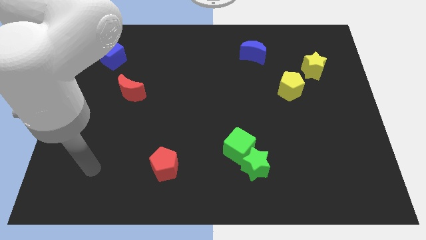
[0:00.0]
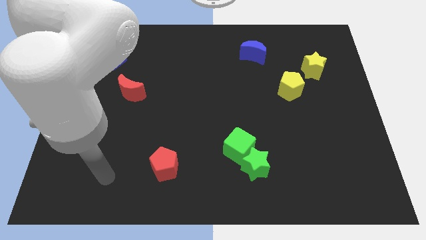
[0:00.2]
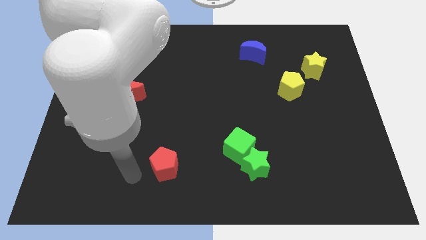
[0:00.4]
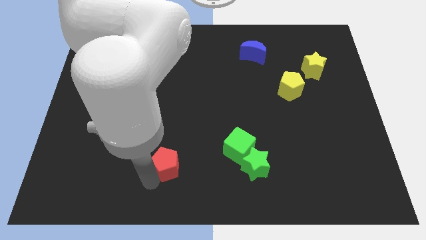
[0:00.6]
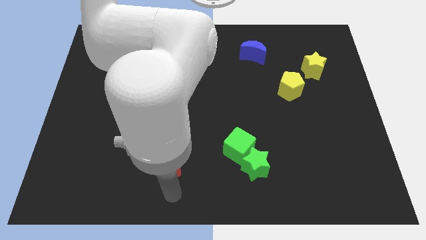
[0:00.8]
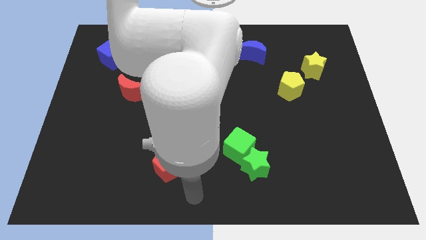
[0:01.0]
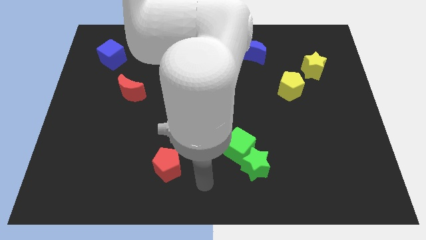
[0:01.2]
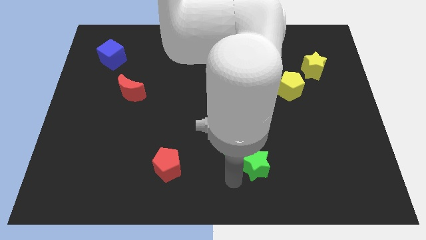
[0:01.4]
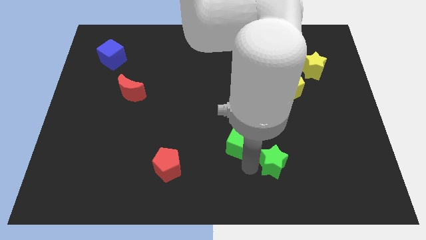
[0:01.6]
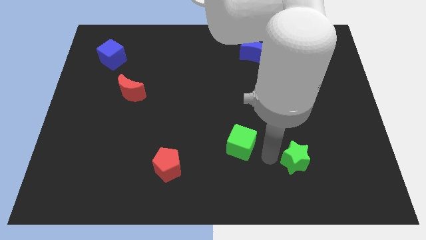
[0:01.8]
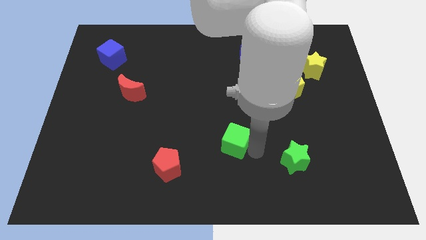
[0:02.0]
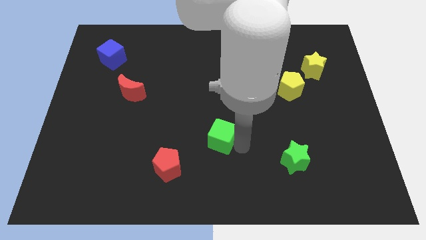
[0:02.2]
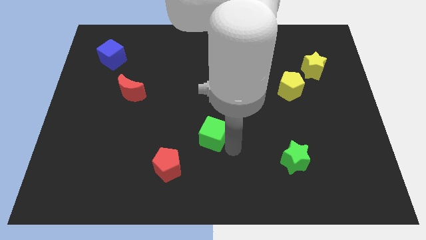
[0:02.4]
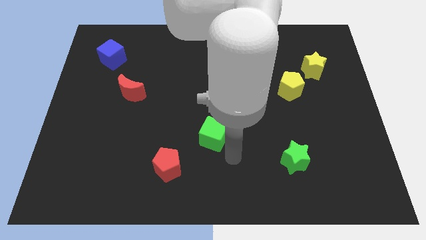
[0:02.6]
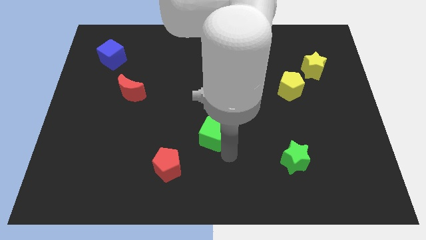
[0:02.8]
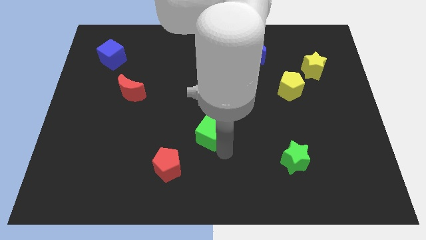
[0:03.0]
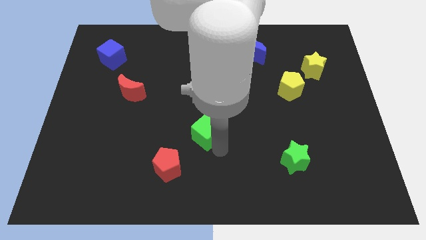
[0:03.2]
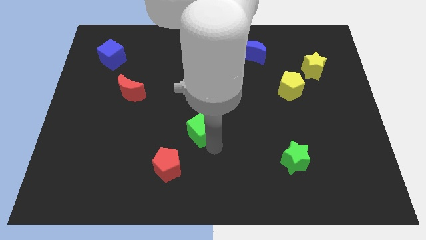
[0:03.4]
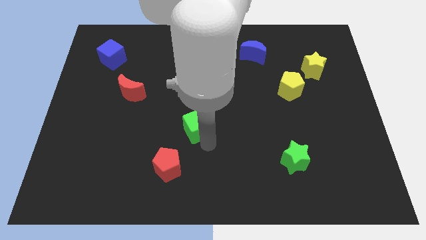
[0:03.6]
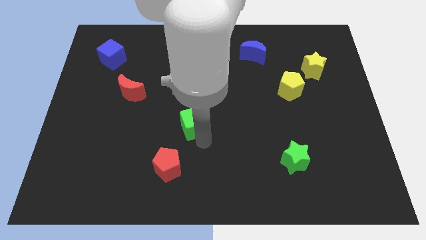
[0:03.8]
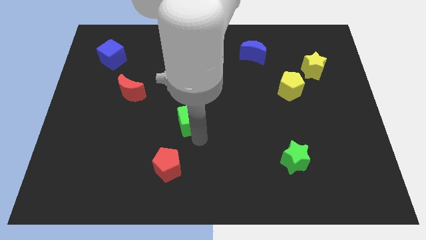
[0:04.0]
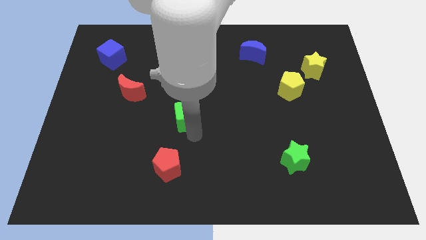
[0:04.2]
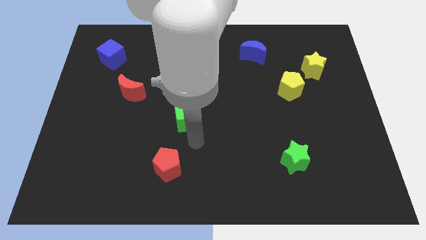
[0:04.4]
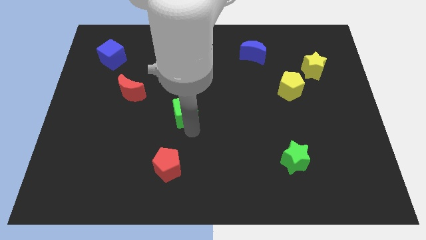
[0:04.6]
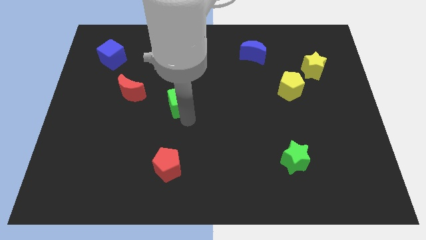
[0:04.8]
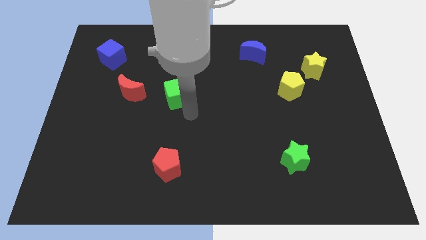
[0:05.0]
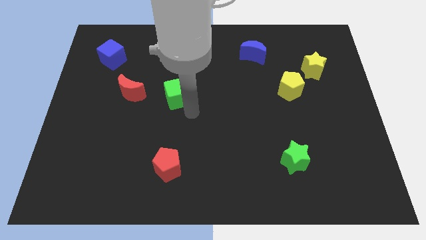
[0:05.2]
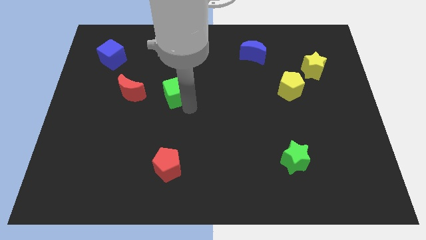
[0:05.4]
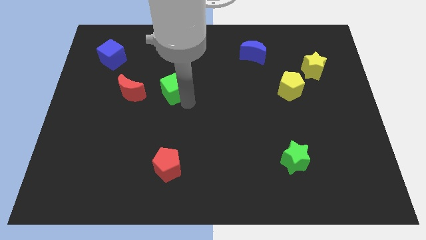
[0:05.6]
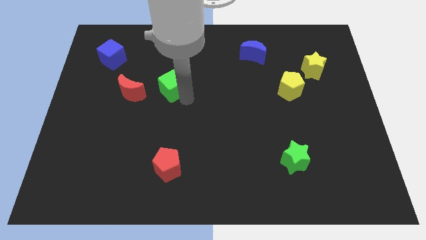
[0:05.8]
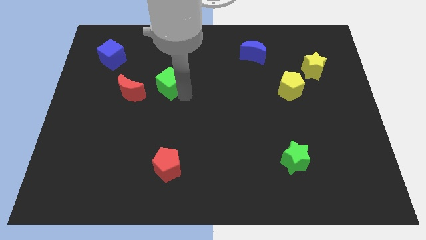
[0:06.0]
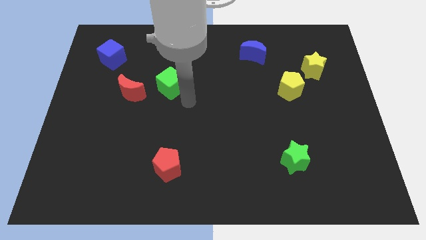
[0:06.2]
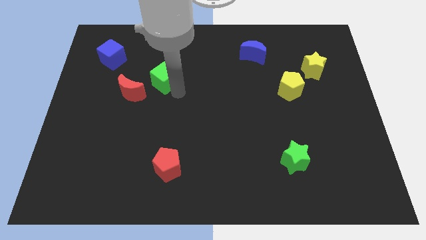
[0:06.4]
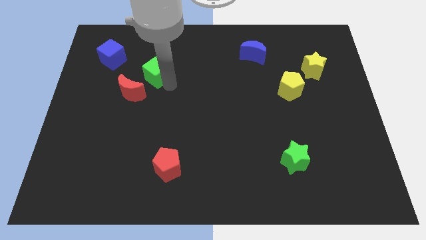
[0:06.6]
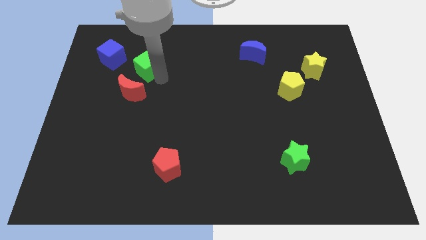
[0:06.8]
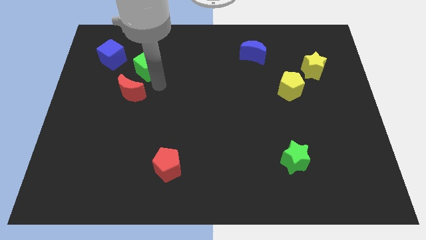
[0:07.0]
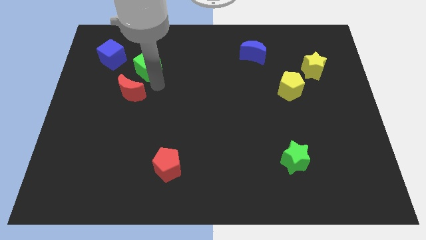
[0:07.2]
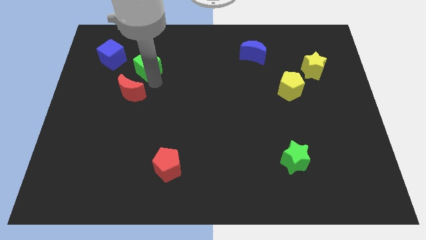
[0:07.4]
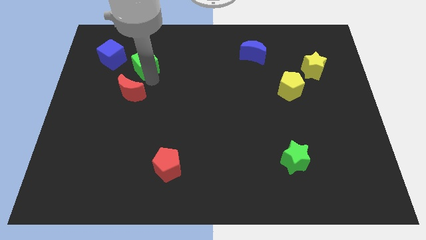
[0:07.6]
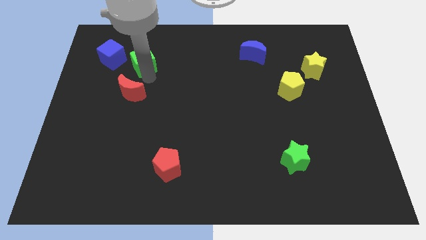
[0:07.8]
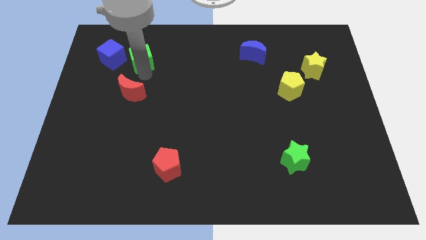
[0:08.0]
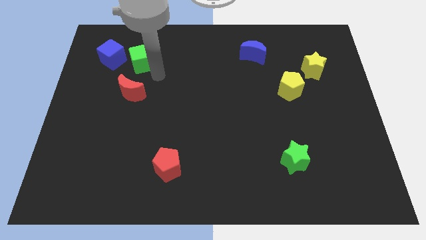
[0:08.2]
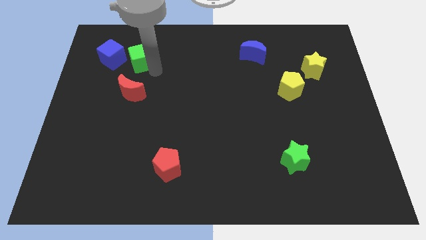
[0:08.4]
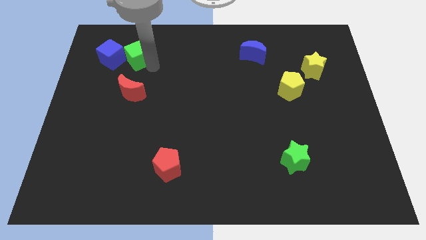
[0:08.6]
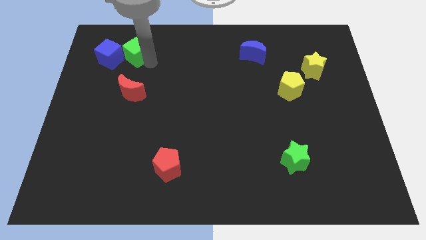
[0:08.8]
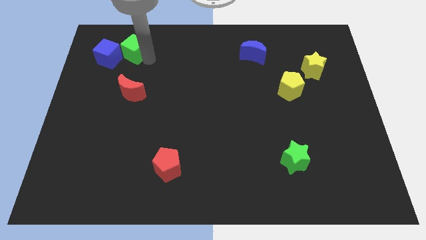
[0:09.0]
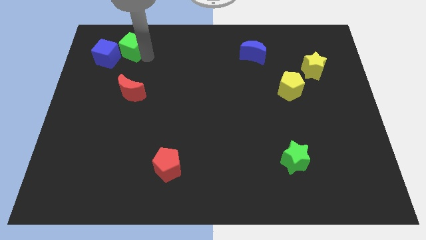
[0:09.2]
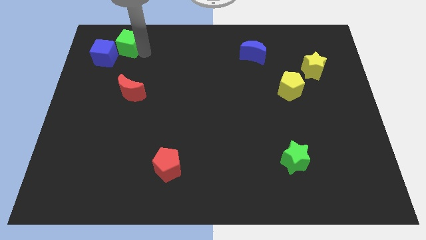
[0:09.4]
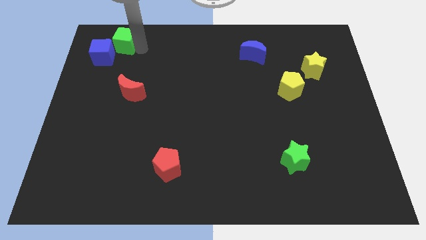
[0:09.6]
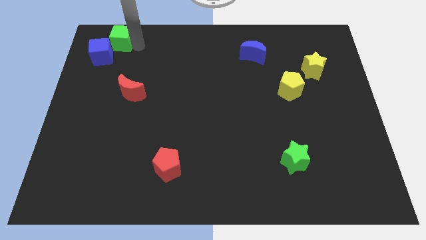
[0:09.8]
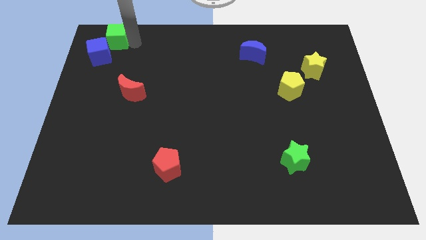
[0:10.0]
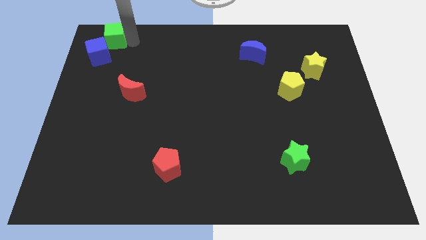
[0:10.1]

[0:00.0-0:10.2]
put the green cube to the top left corner

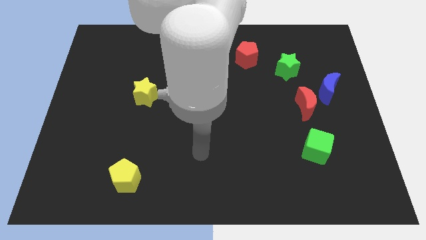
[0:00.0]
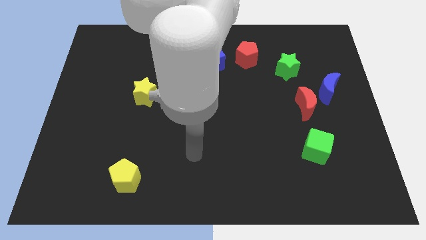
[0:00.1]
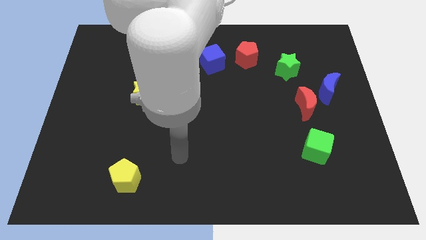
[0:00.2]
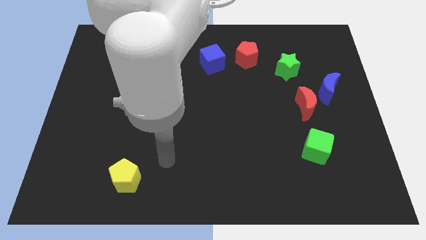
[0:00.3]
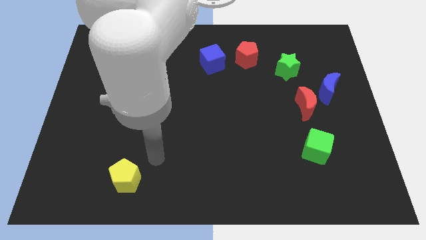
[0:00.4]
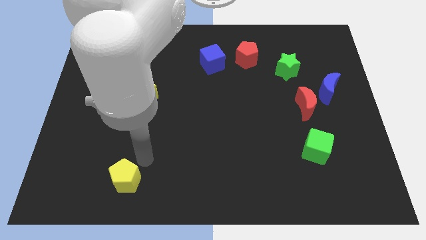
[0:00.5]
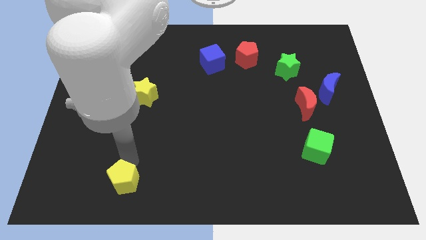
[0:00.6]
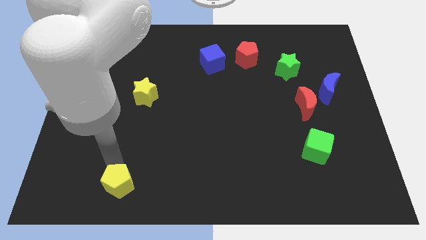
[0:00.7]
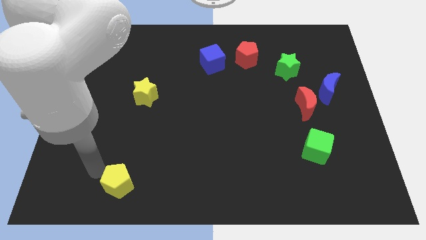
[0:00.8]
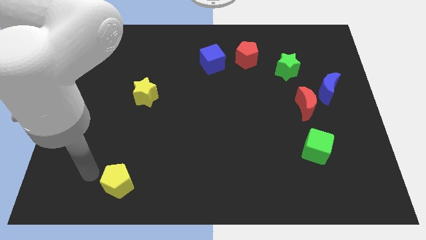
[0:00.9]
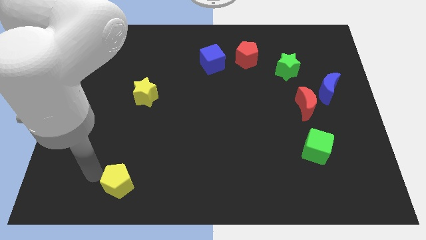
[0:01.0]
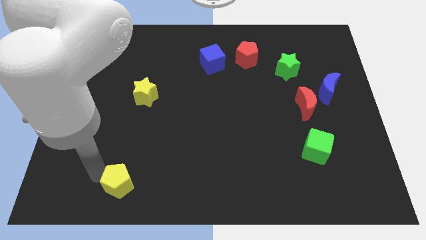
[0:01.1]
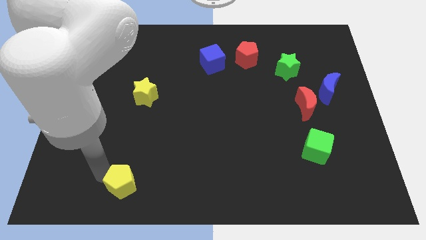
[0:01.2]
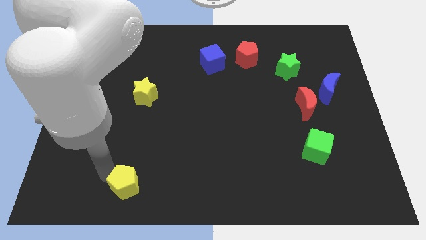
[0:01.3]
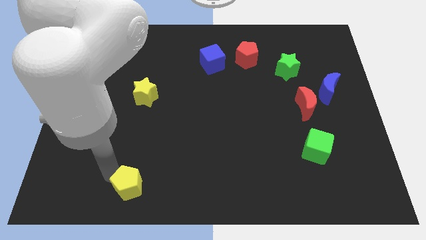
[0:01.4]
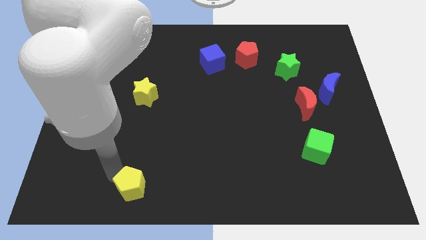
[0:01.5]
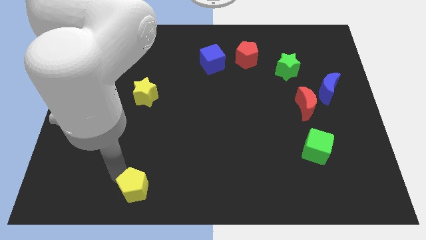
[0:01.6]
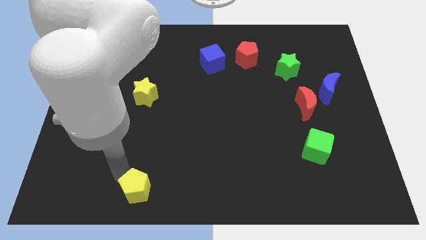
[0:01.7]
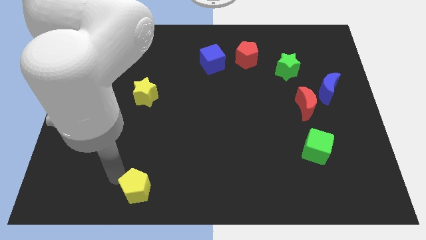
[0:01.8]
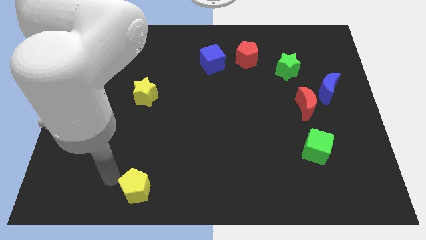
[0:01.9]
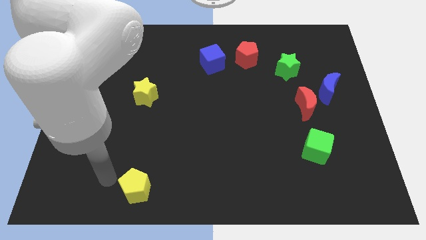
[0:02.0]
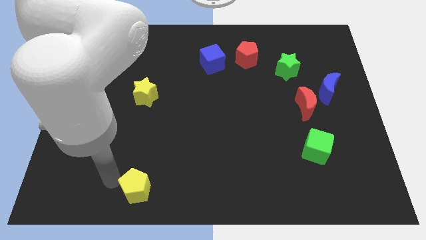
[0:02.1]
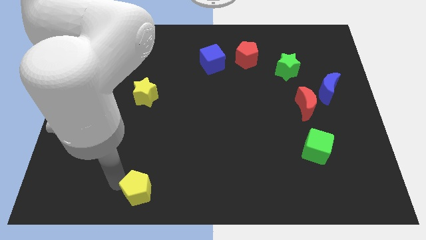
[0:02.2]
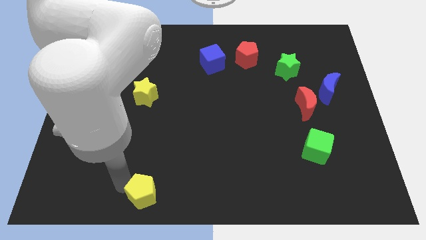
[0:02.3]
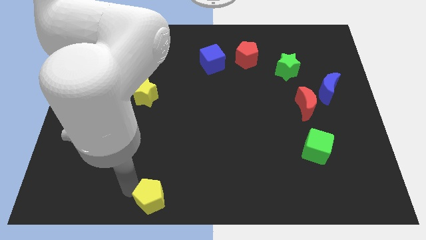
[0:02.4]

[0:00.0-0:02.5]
push the yellow pentagon to the bottom
